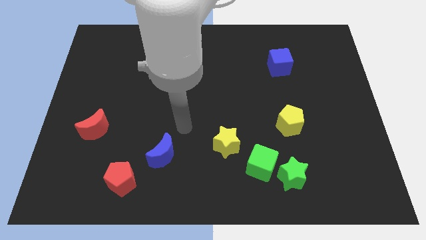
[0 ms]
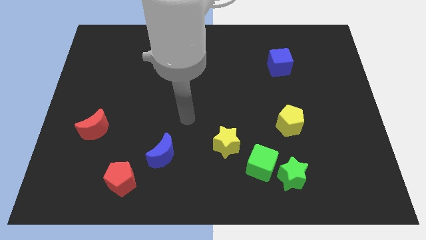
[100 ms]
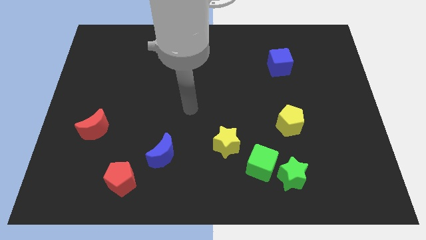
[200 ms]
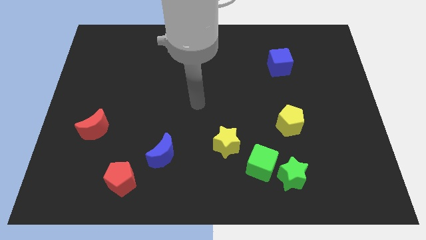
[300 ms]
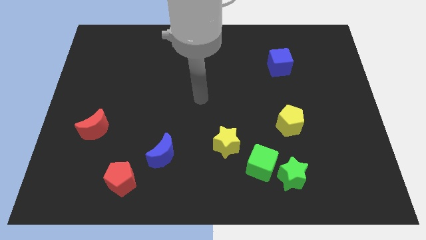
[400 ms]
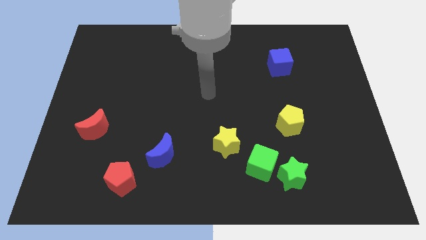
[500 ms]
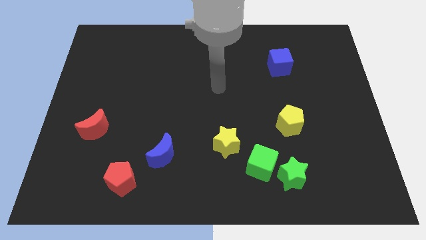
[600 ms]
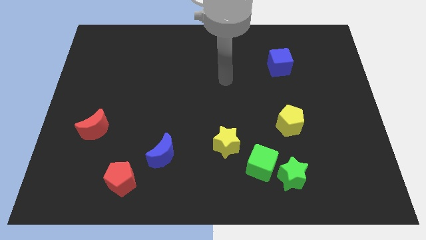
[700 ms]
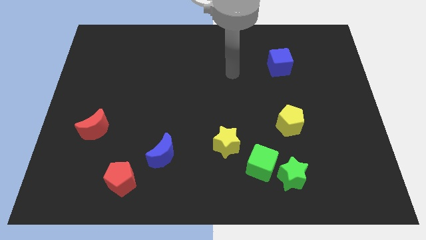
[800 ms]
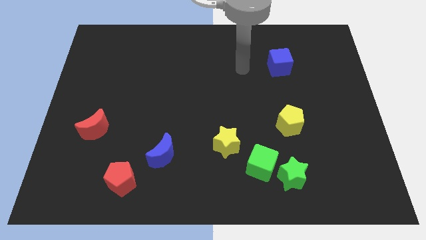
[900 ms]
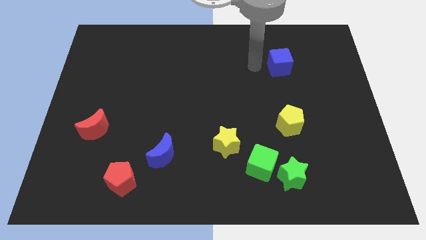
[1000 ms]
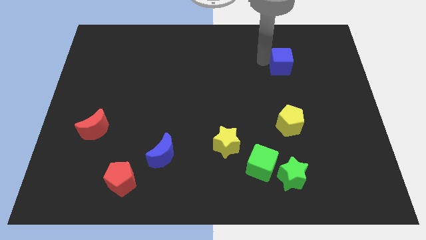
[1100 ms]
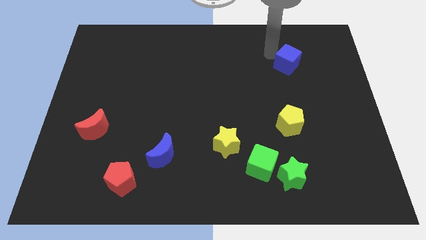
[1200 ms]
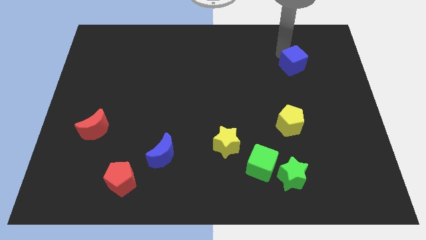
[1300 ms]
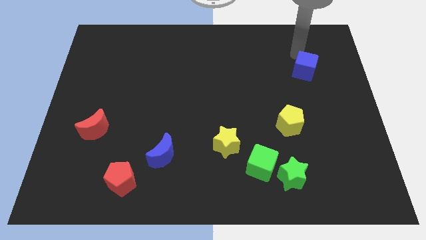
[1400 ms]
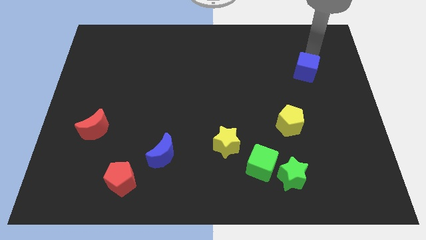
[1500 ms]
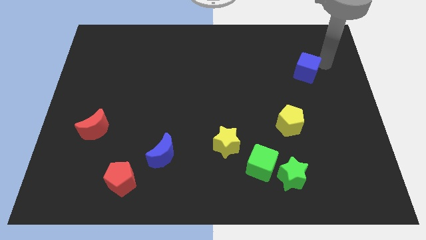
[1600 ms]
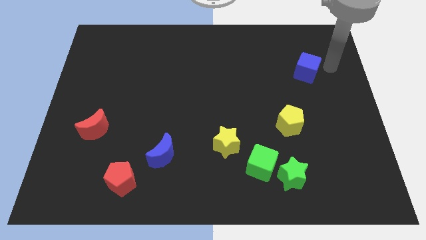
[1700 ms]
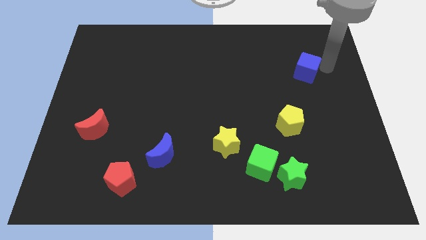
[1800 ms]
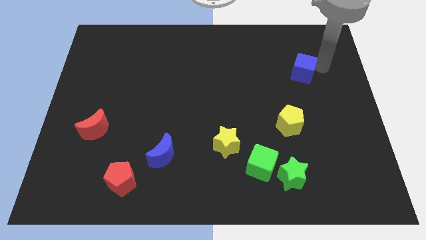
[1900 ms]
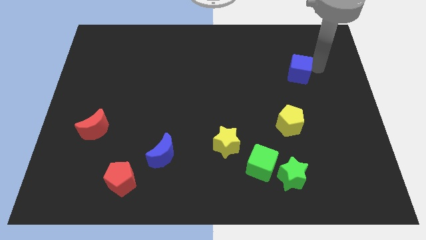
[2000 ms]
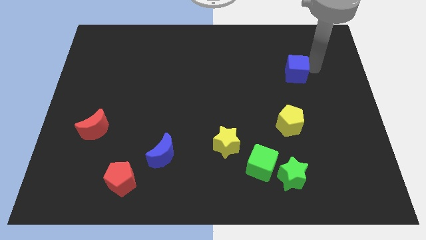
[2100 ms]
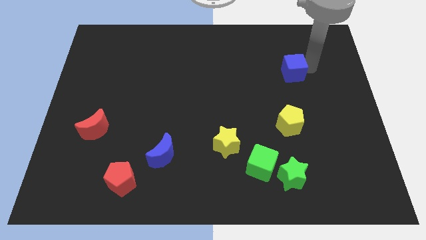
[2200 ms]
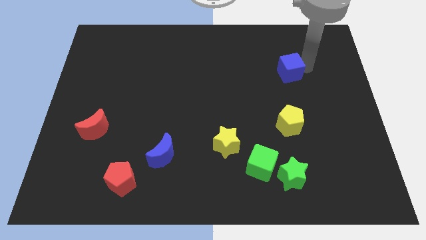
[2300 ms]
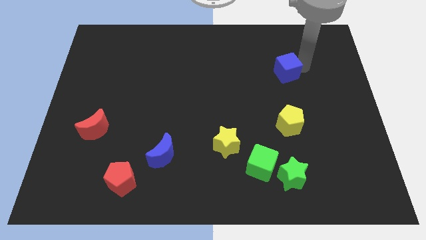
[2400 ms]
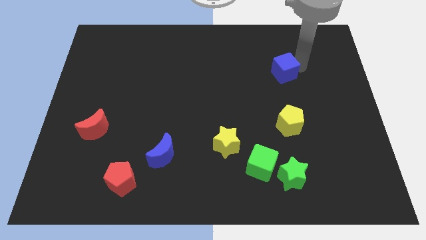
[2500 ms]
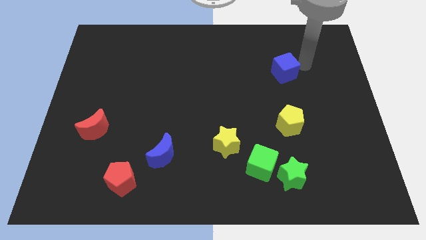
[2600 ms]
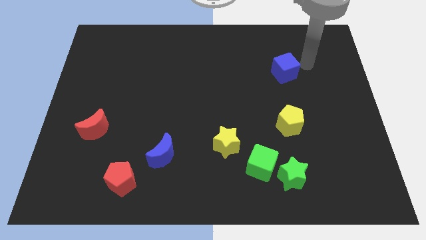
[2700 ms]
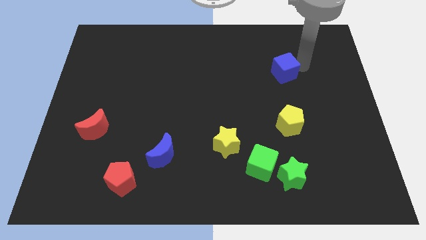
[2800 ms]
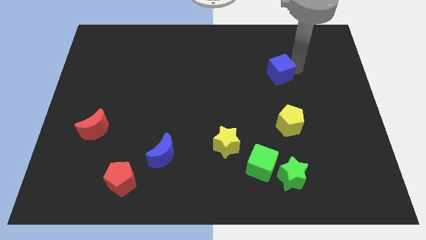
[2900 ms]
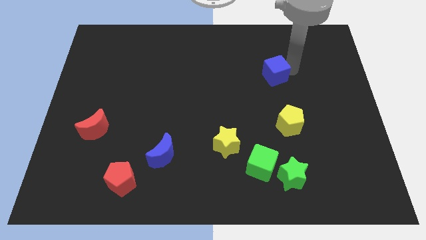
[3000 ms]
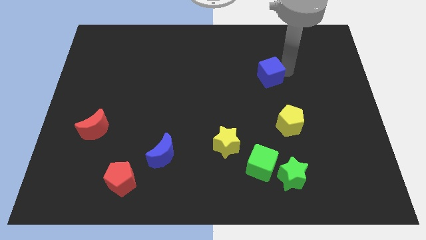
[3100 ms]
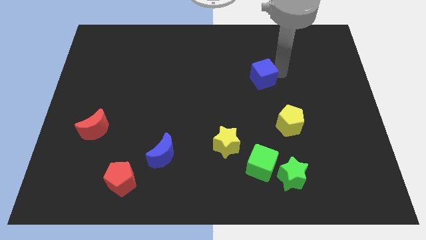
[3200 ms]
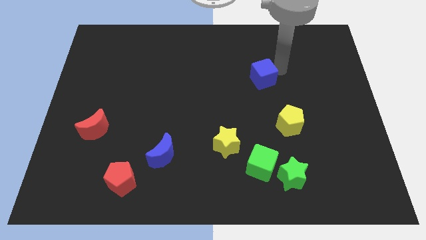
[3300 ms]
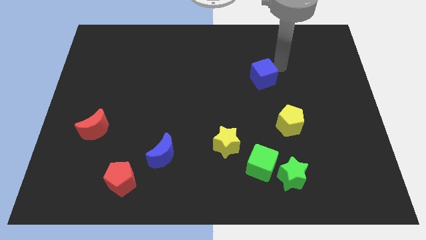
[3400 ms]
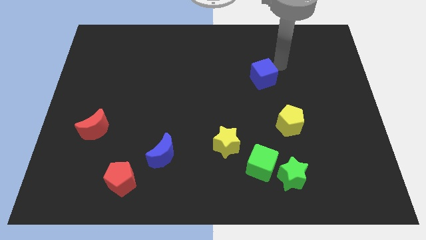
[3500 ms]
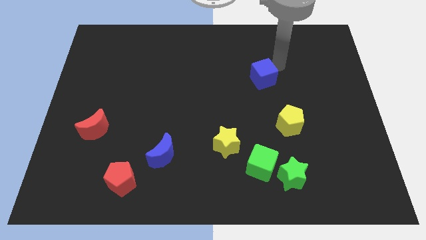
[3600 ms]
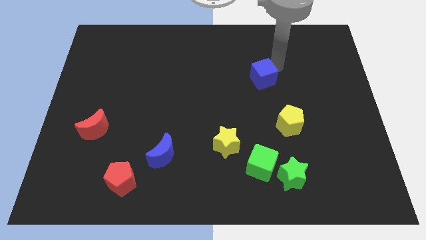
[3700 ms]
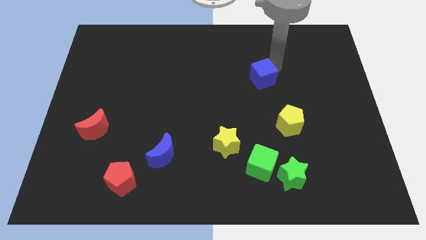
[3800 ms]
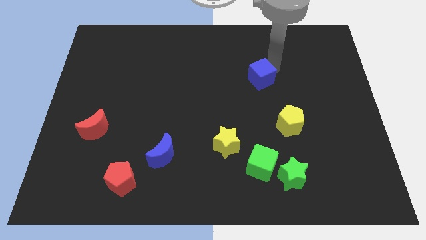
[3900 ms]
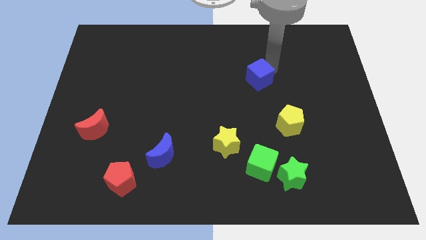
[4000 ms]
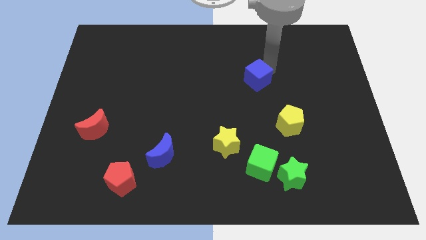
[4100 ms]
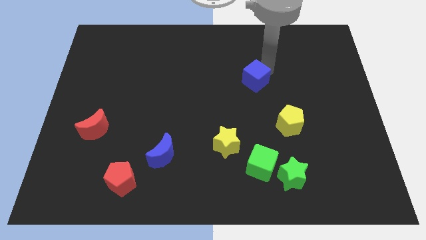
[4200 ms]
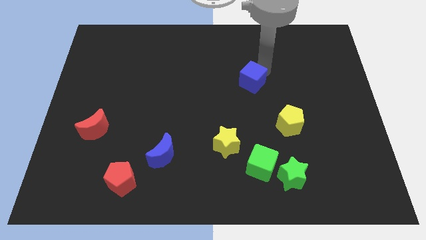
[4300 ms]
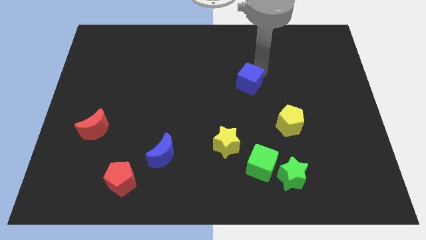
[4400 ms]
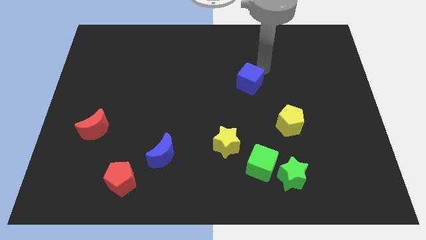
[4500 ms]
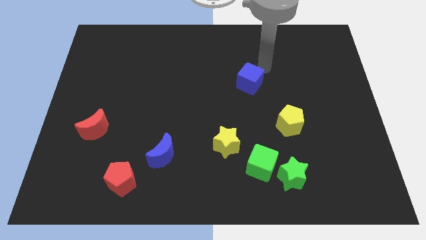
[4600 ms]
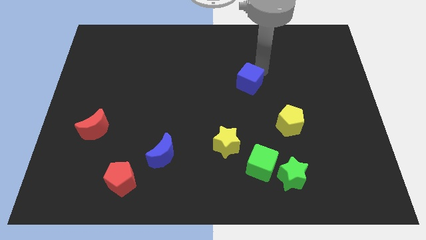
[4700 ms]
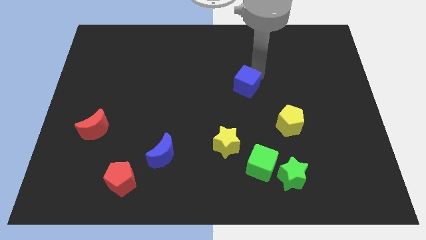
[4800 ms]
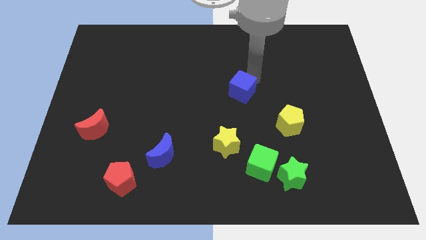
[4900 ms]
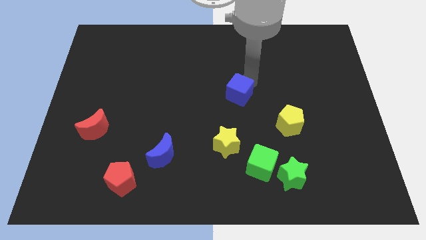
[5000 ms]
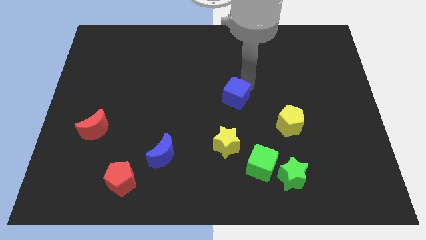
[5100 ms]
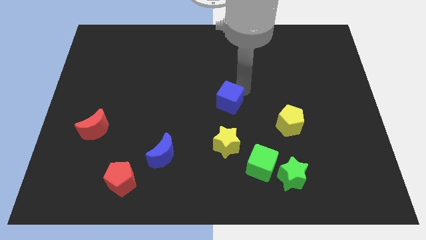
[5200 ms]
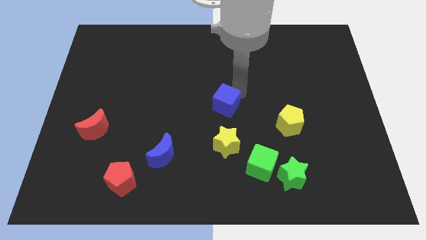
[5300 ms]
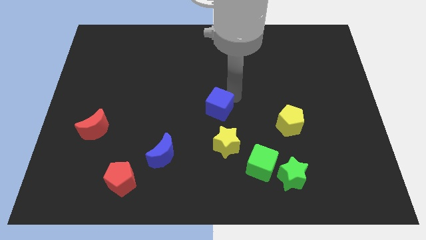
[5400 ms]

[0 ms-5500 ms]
move the blue cube down and to the left diagonally

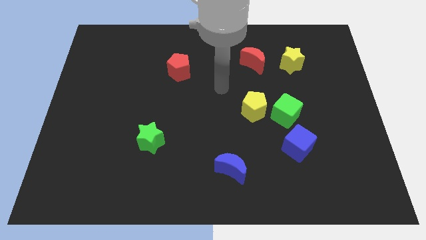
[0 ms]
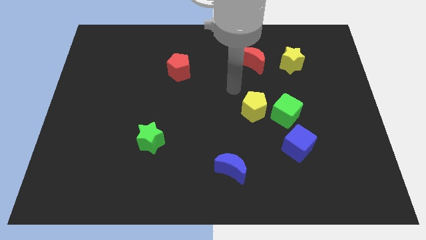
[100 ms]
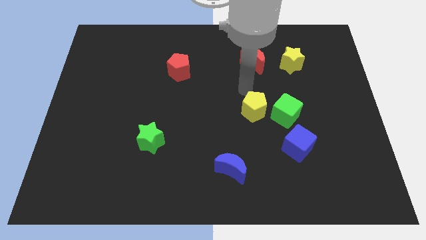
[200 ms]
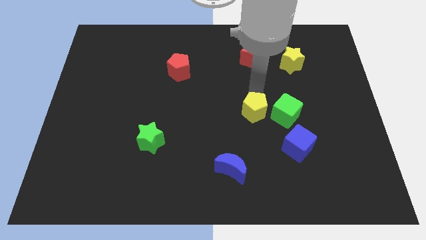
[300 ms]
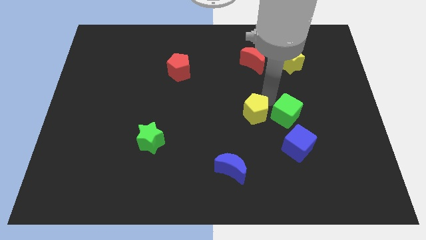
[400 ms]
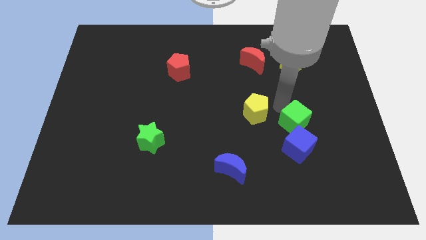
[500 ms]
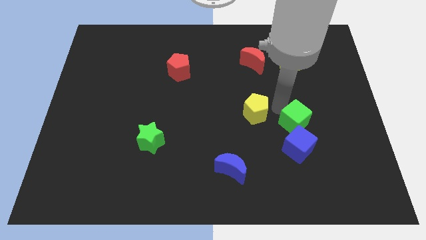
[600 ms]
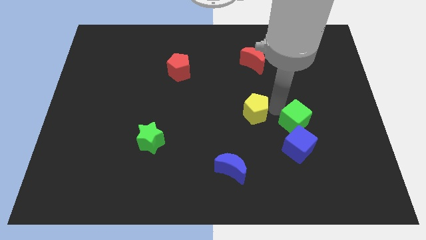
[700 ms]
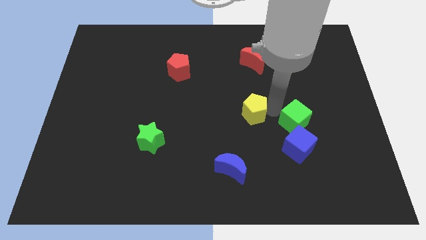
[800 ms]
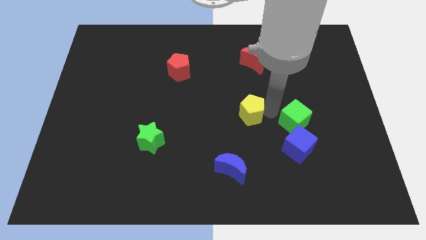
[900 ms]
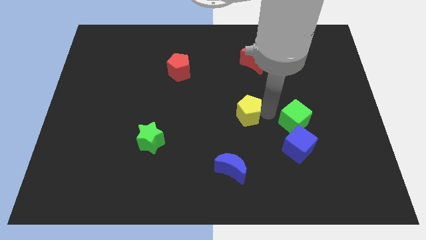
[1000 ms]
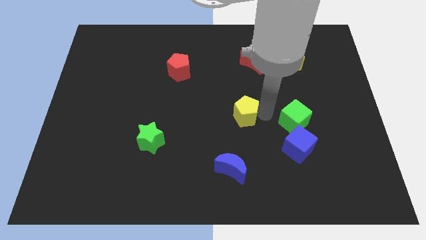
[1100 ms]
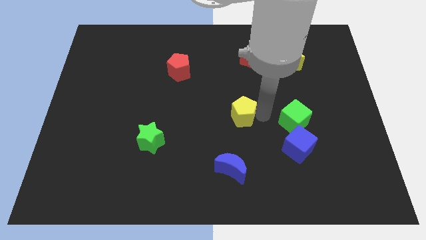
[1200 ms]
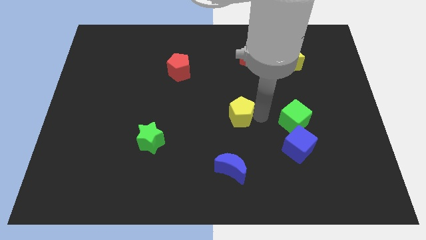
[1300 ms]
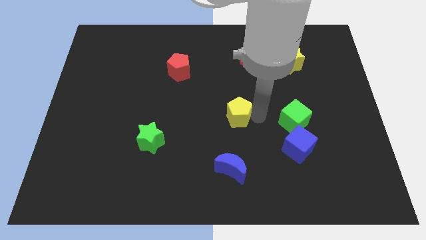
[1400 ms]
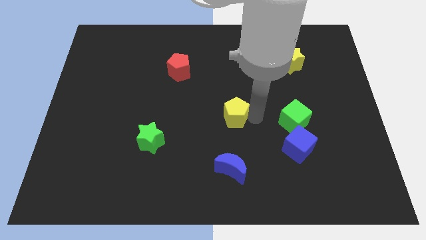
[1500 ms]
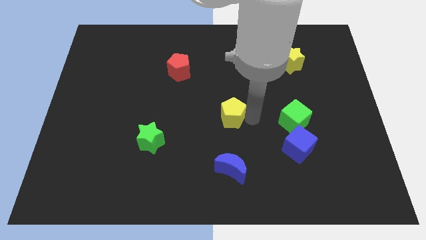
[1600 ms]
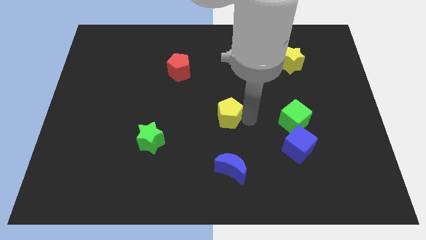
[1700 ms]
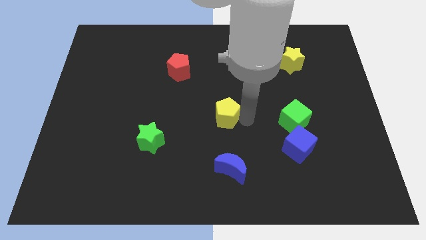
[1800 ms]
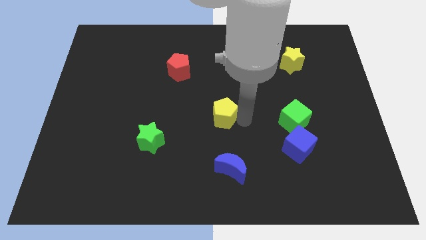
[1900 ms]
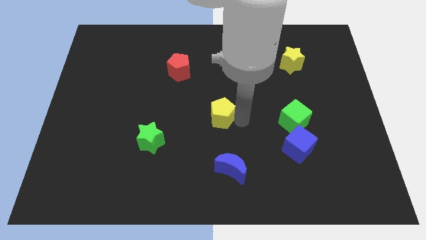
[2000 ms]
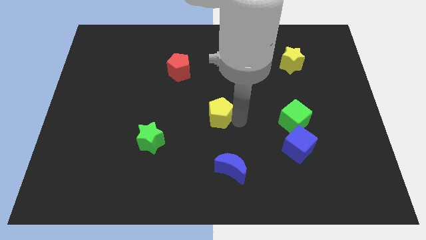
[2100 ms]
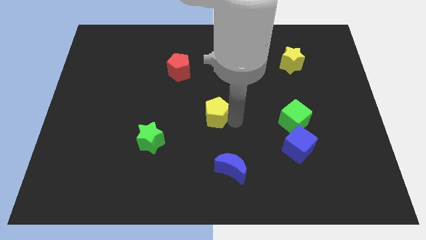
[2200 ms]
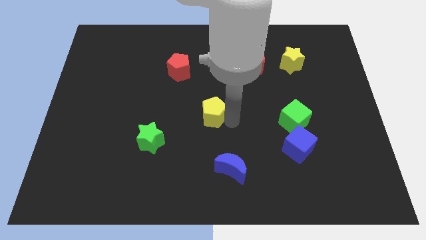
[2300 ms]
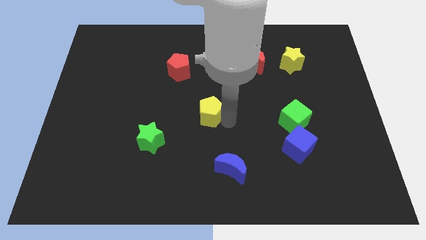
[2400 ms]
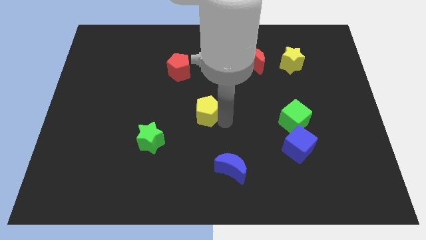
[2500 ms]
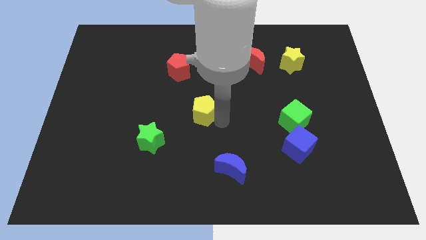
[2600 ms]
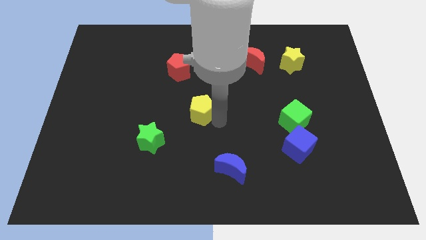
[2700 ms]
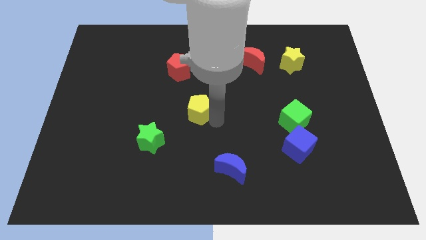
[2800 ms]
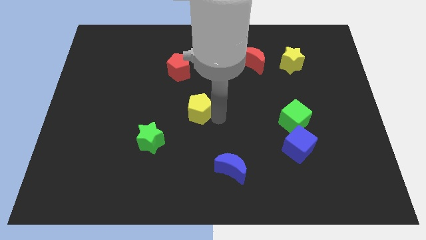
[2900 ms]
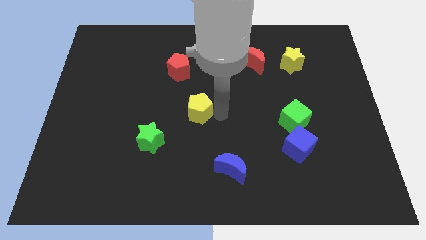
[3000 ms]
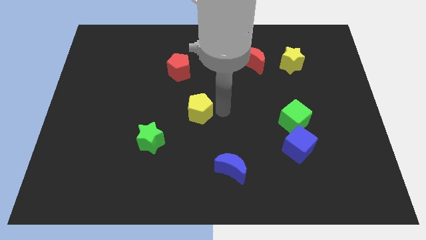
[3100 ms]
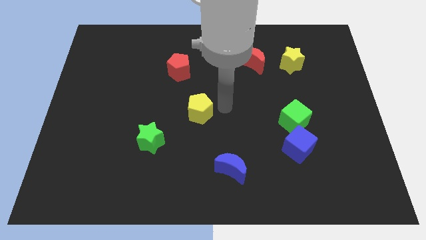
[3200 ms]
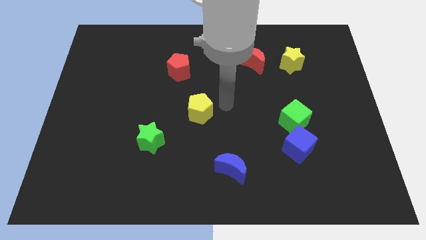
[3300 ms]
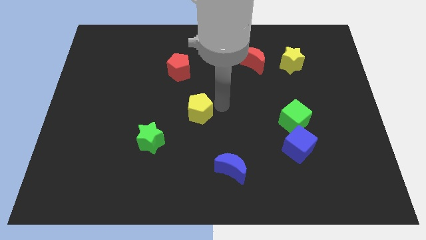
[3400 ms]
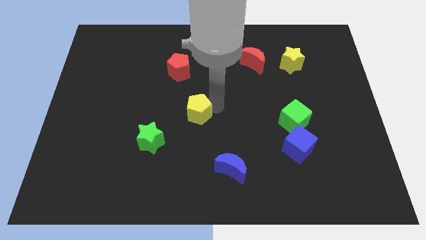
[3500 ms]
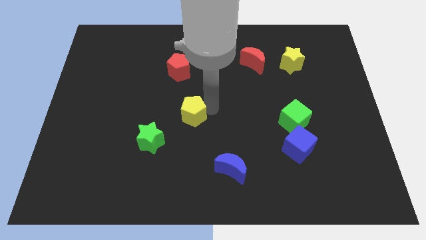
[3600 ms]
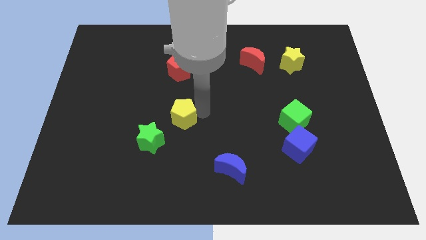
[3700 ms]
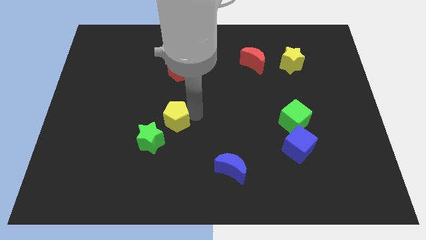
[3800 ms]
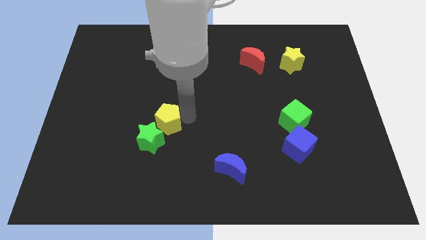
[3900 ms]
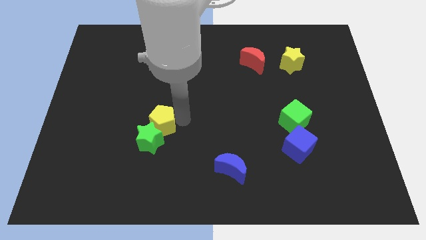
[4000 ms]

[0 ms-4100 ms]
push the yellow pentagon to the left
